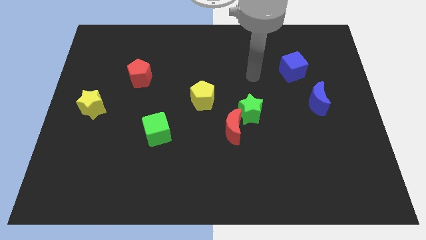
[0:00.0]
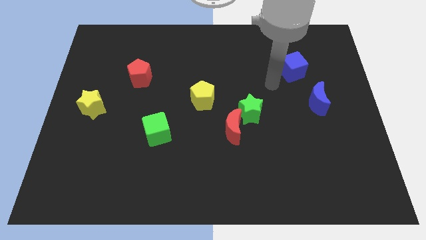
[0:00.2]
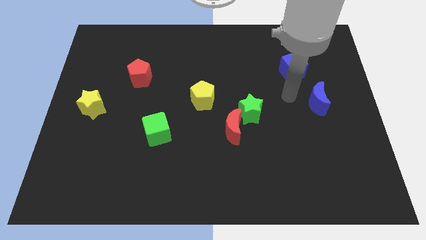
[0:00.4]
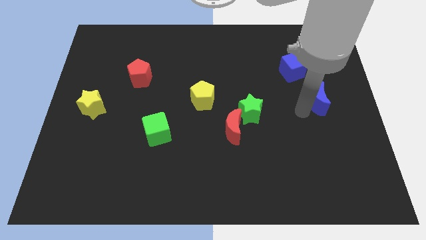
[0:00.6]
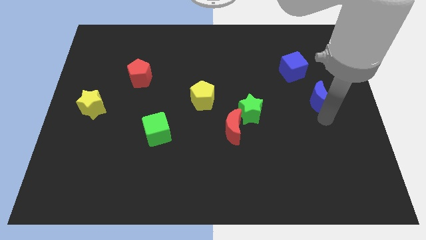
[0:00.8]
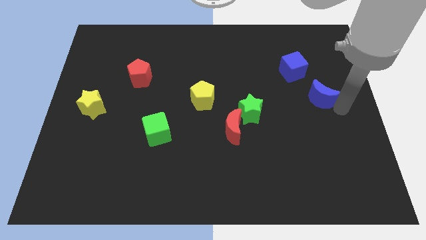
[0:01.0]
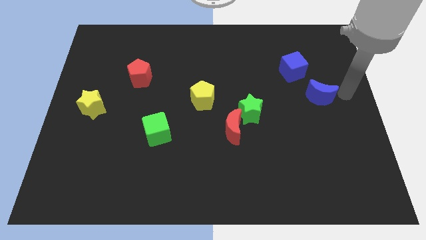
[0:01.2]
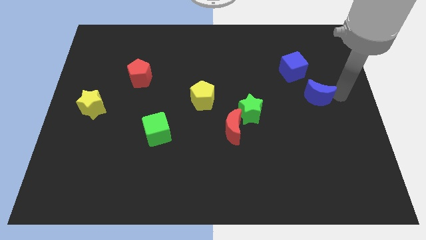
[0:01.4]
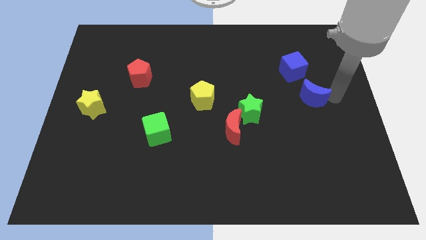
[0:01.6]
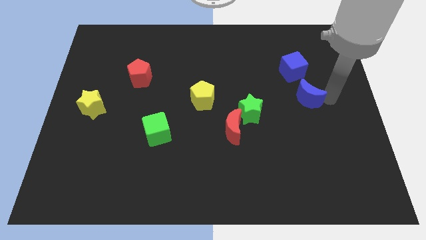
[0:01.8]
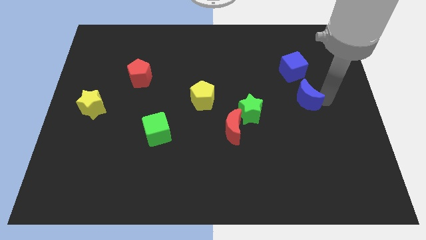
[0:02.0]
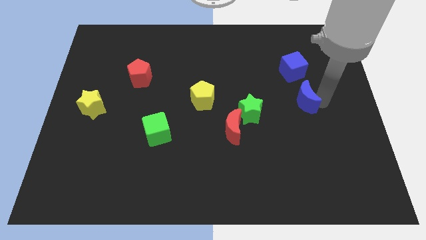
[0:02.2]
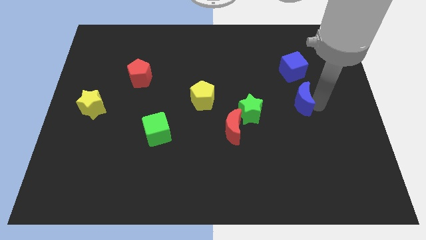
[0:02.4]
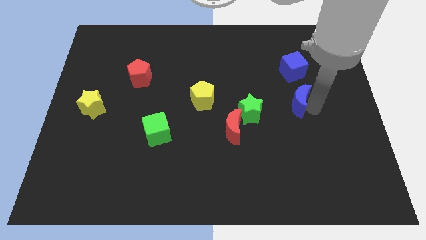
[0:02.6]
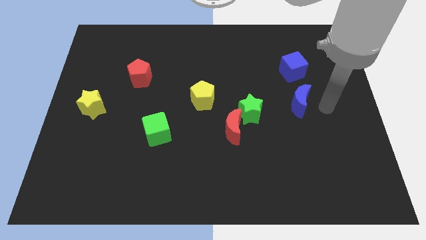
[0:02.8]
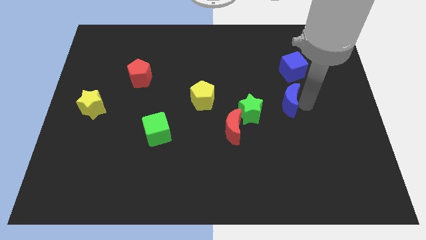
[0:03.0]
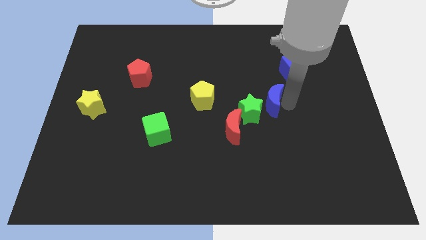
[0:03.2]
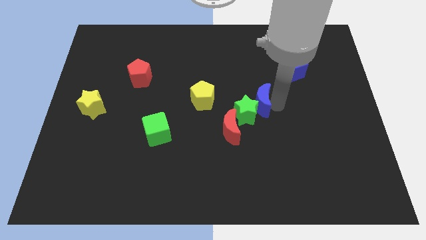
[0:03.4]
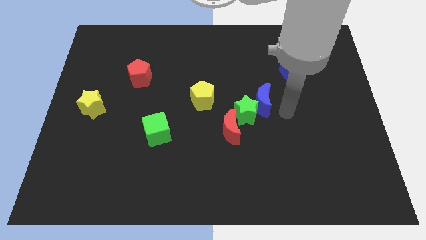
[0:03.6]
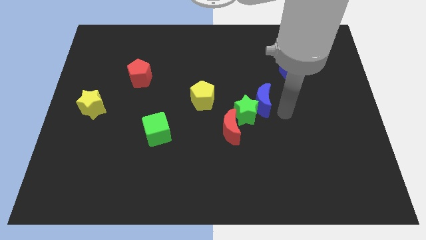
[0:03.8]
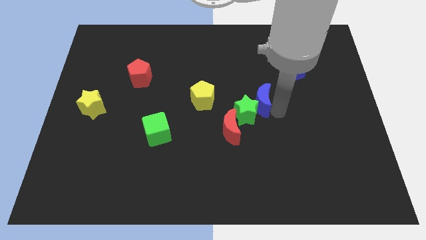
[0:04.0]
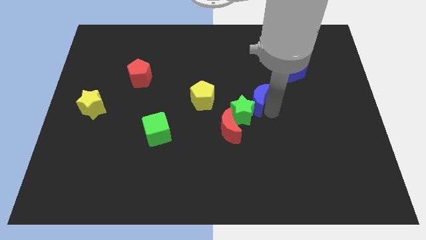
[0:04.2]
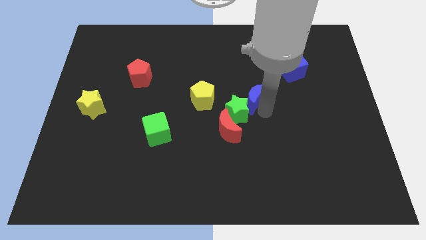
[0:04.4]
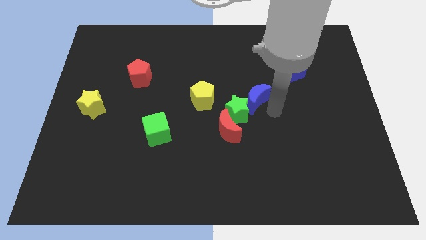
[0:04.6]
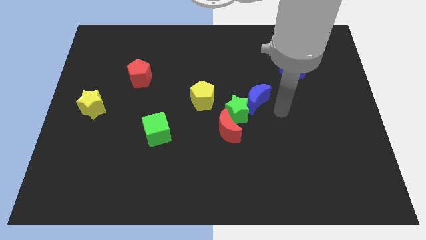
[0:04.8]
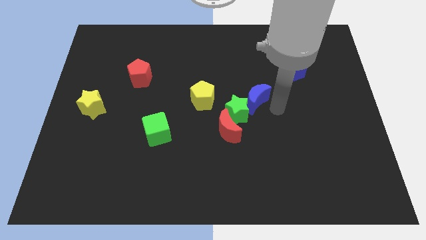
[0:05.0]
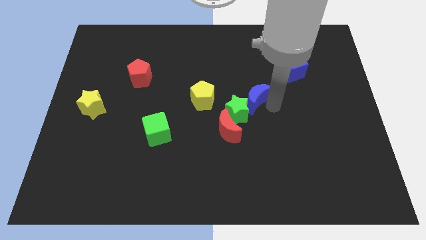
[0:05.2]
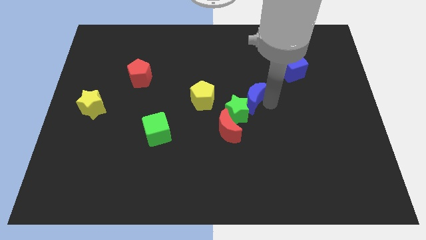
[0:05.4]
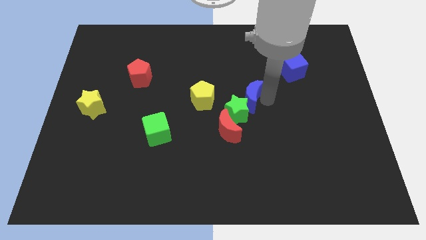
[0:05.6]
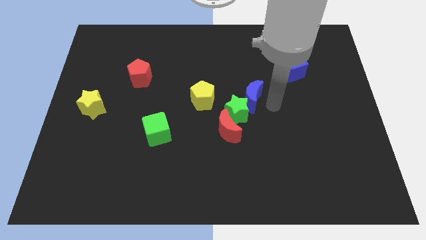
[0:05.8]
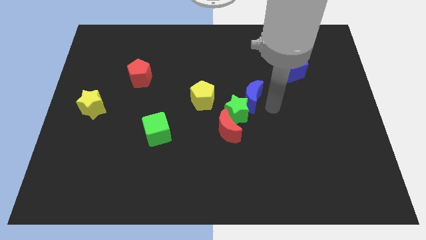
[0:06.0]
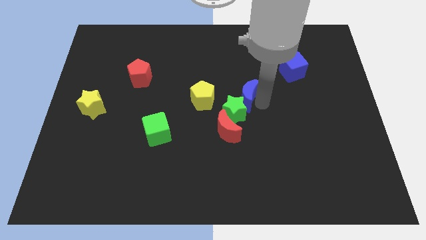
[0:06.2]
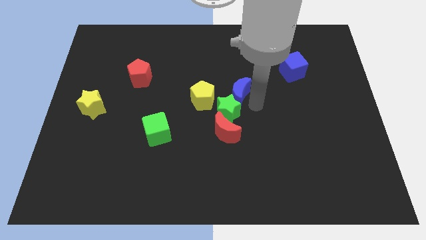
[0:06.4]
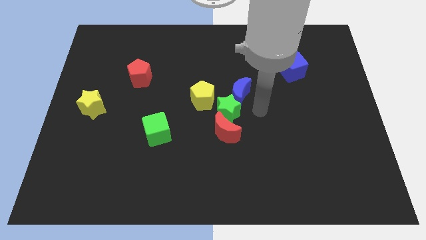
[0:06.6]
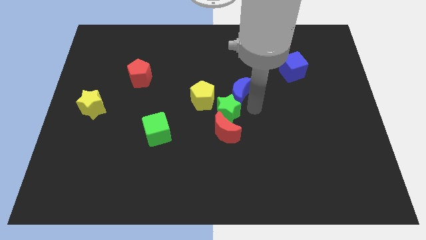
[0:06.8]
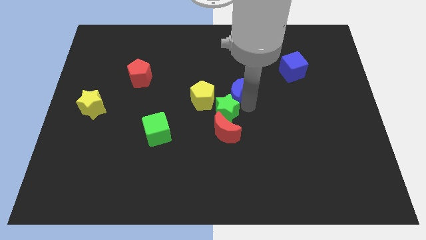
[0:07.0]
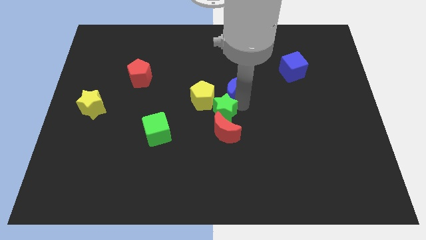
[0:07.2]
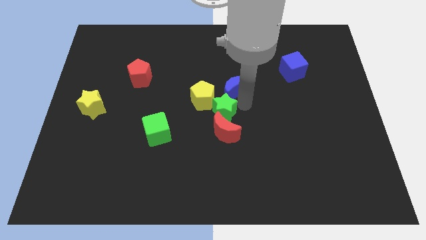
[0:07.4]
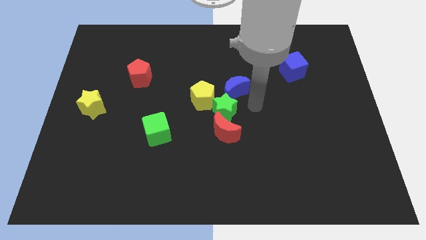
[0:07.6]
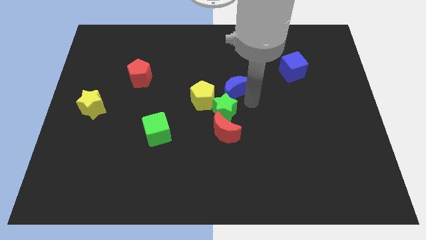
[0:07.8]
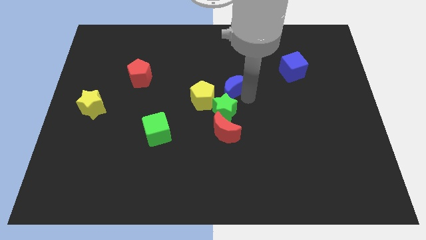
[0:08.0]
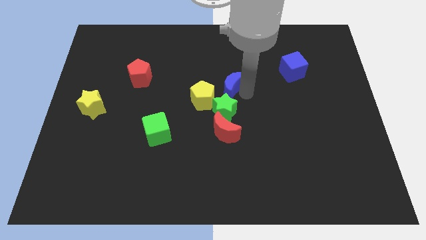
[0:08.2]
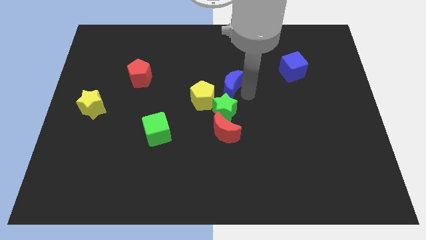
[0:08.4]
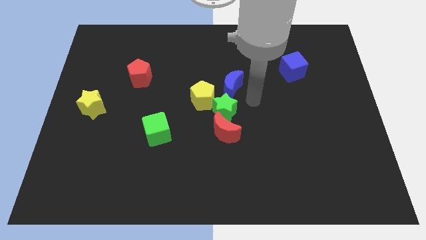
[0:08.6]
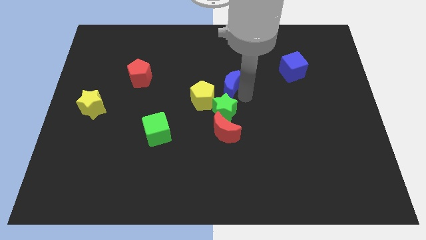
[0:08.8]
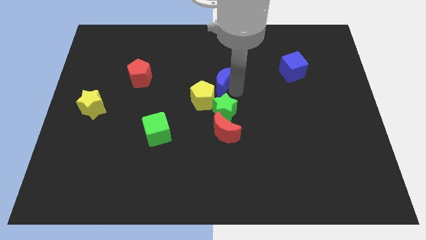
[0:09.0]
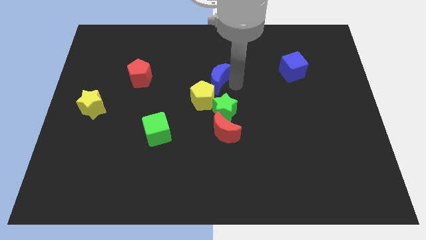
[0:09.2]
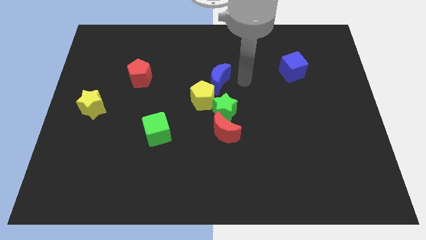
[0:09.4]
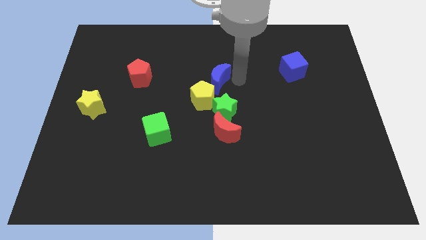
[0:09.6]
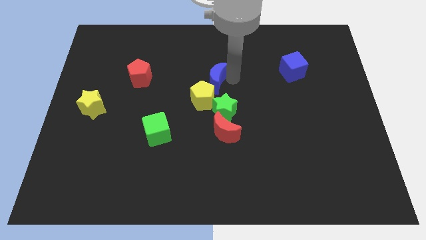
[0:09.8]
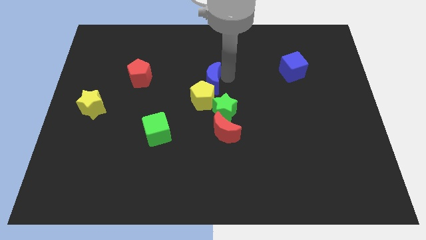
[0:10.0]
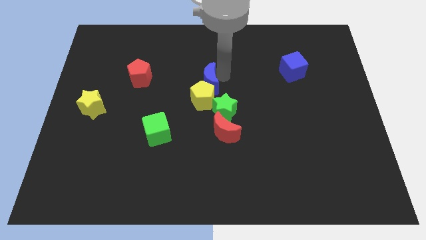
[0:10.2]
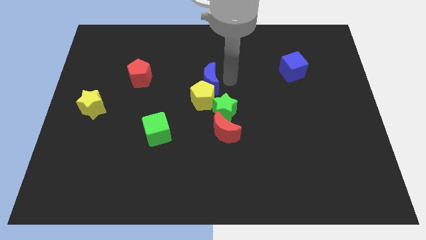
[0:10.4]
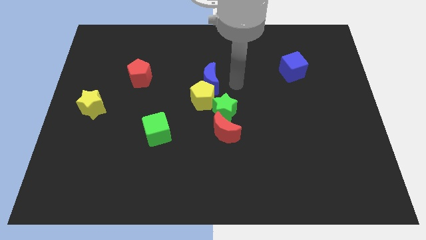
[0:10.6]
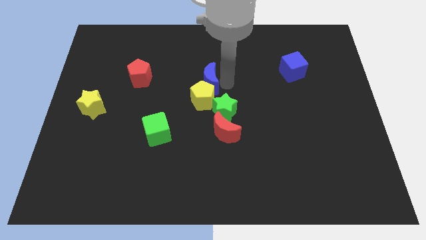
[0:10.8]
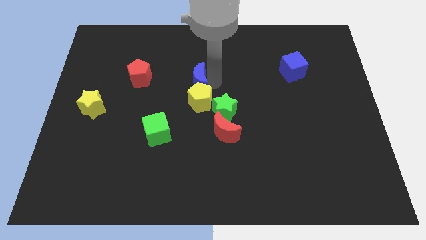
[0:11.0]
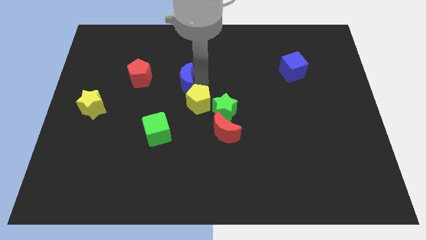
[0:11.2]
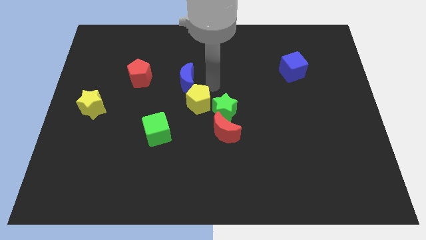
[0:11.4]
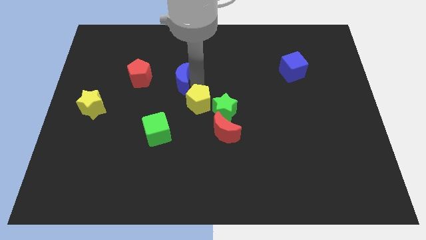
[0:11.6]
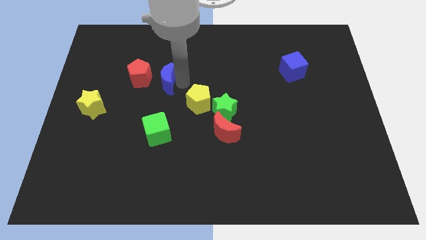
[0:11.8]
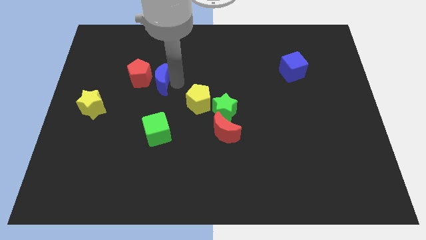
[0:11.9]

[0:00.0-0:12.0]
put the blue moon to the red pentagon

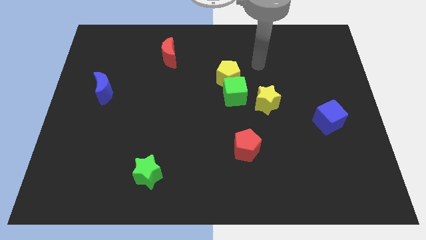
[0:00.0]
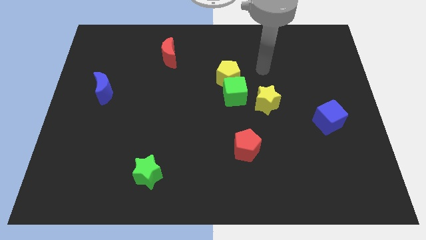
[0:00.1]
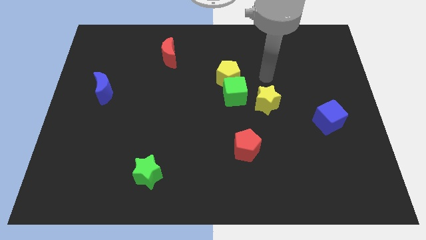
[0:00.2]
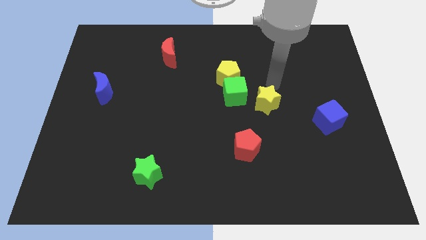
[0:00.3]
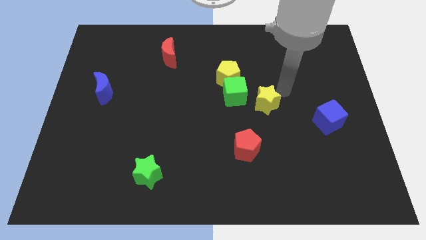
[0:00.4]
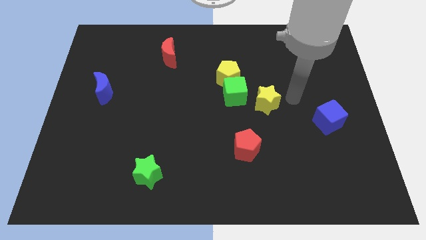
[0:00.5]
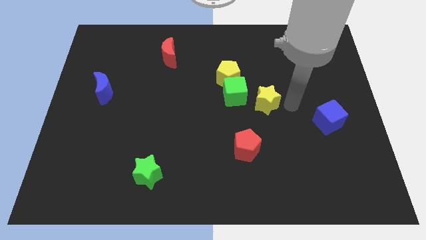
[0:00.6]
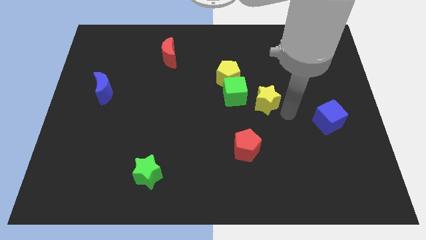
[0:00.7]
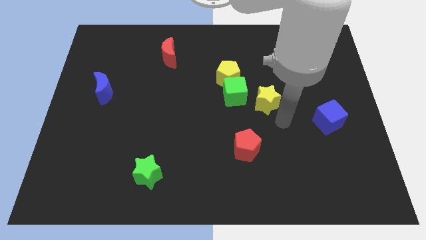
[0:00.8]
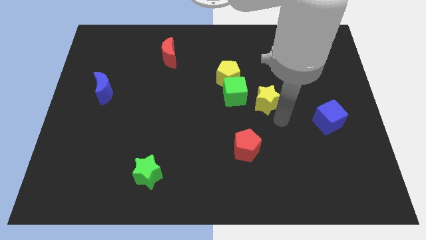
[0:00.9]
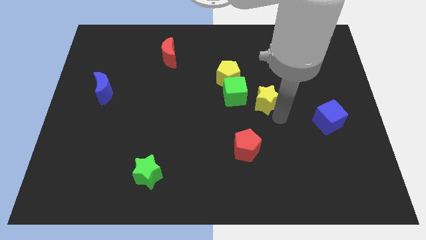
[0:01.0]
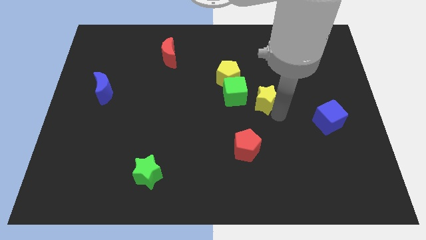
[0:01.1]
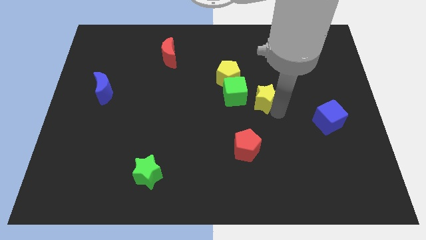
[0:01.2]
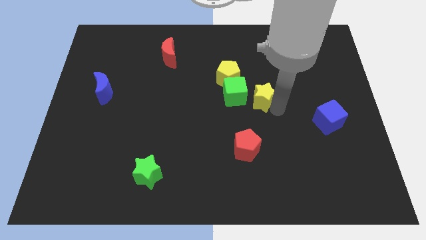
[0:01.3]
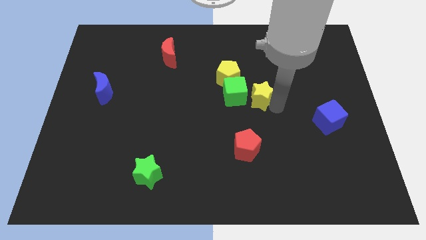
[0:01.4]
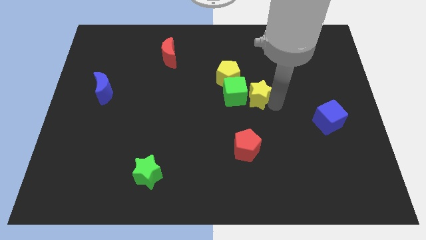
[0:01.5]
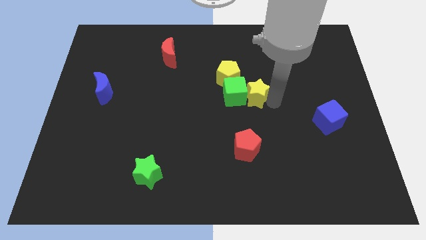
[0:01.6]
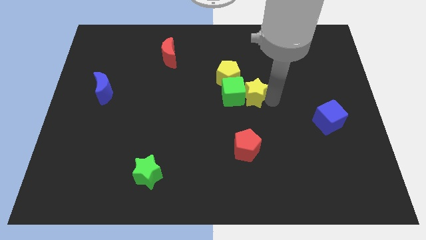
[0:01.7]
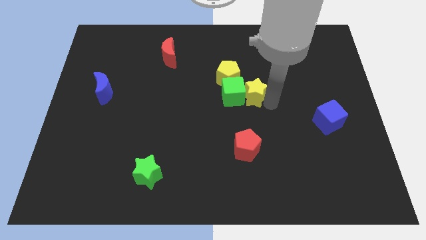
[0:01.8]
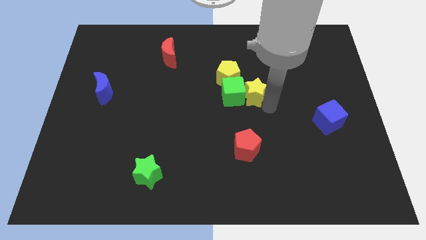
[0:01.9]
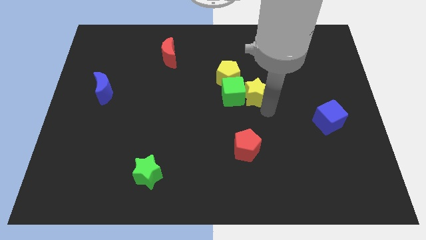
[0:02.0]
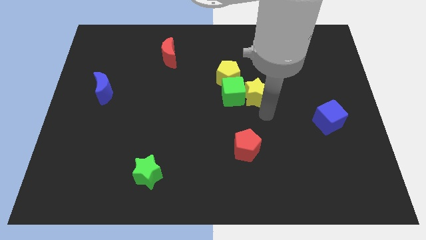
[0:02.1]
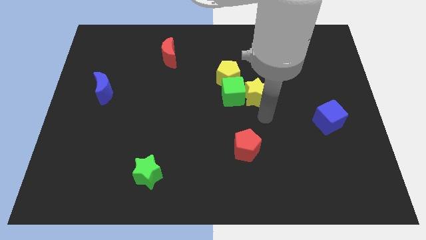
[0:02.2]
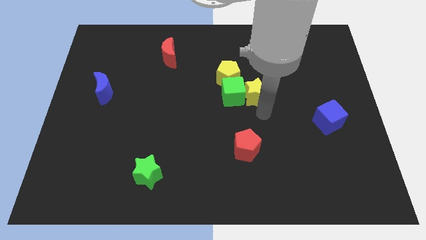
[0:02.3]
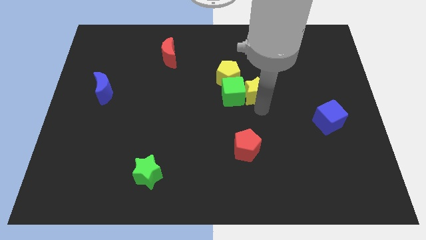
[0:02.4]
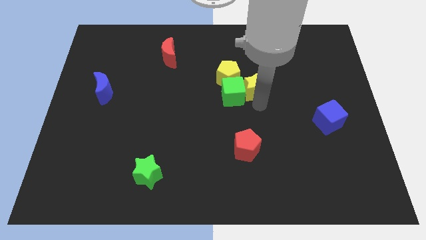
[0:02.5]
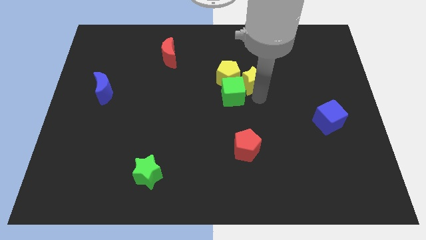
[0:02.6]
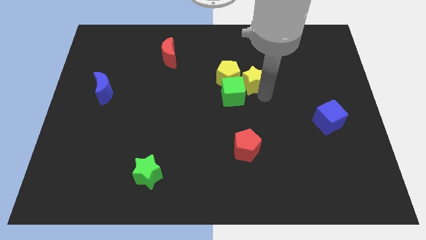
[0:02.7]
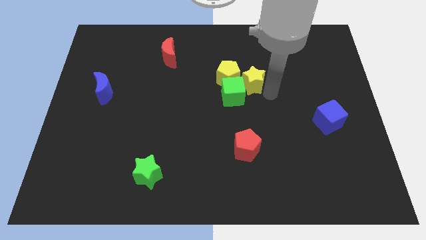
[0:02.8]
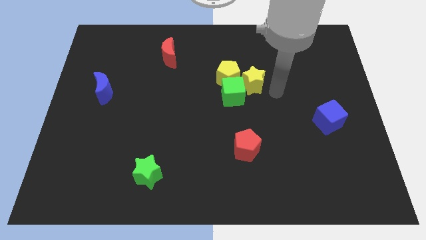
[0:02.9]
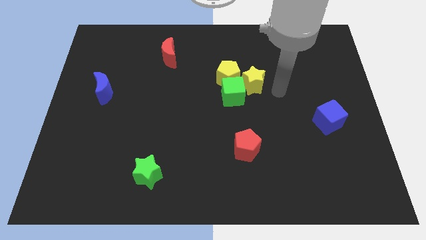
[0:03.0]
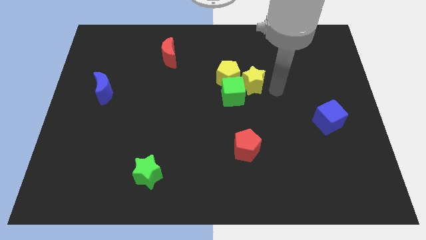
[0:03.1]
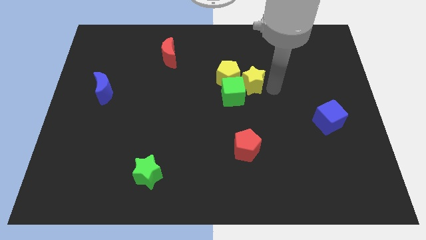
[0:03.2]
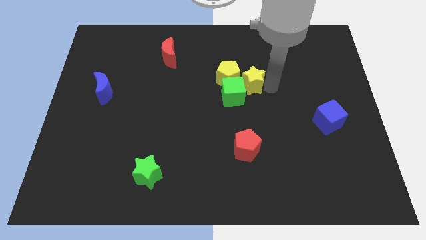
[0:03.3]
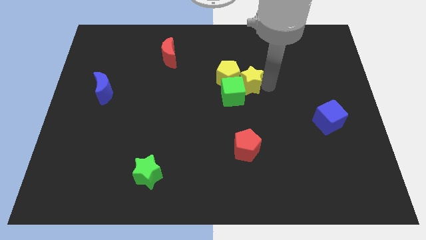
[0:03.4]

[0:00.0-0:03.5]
move the yellow star towards the yellow pentagon
